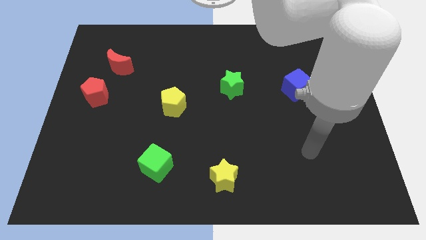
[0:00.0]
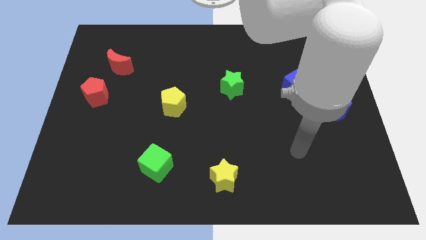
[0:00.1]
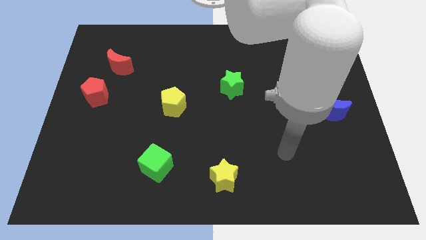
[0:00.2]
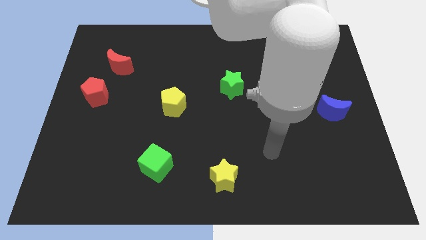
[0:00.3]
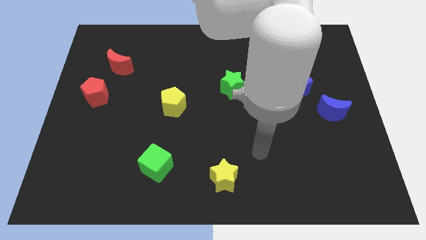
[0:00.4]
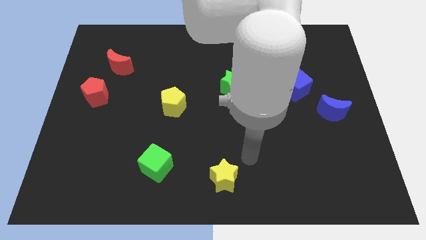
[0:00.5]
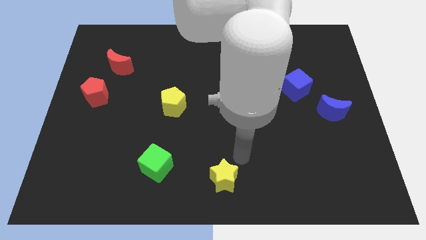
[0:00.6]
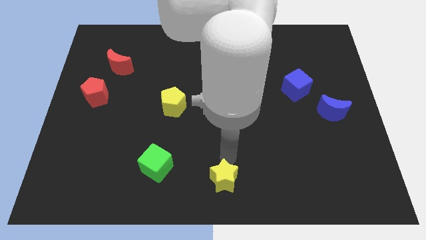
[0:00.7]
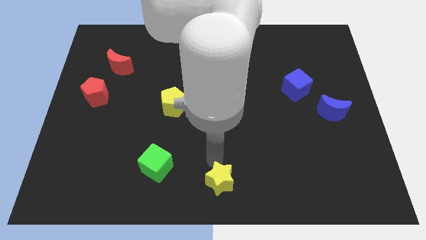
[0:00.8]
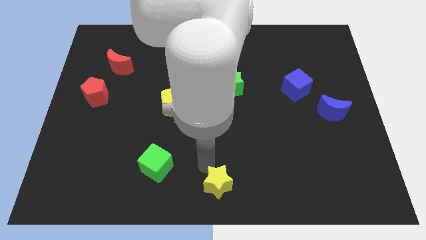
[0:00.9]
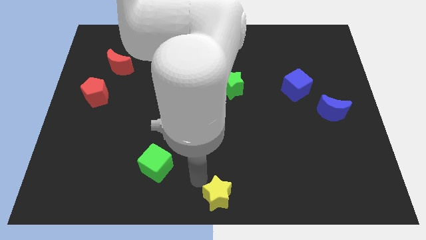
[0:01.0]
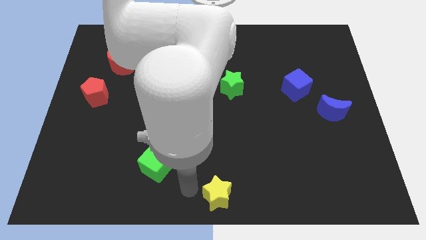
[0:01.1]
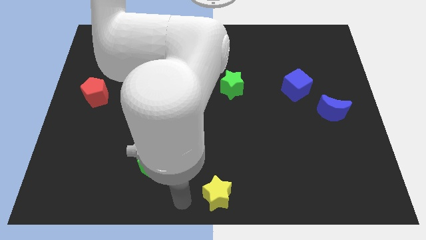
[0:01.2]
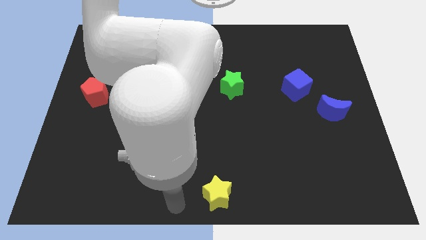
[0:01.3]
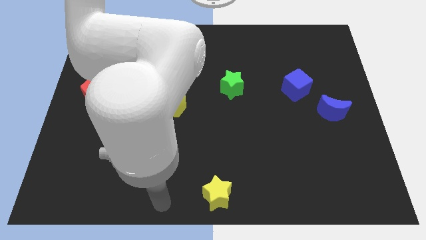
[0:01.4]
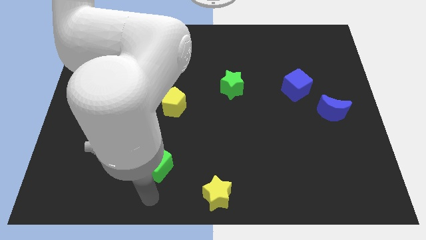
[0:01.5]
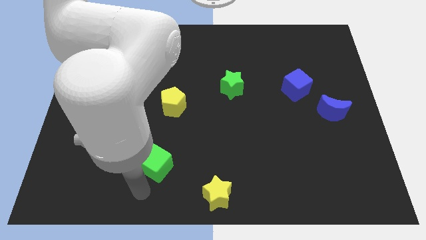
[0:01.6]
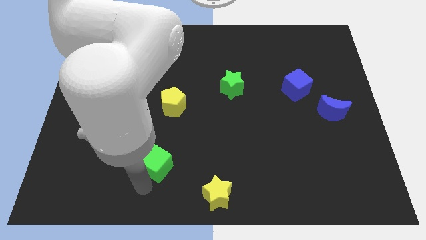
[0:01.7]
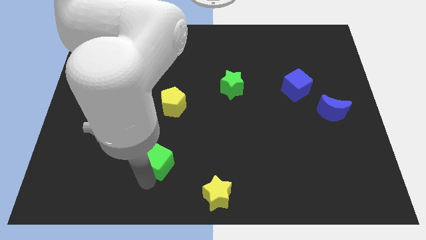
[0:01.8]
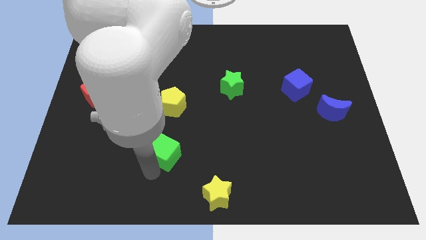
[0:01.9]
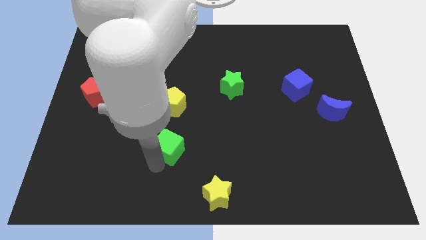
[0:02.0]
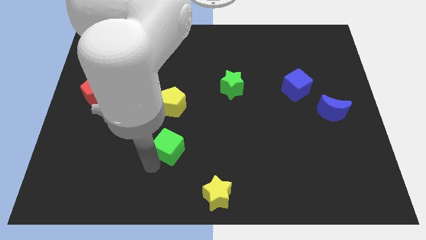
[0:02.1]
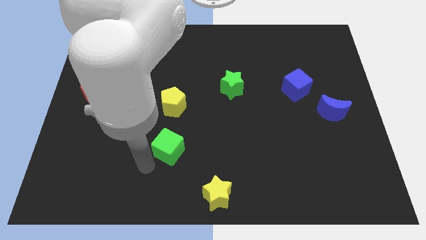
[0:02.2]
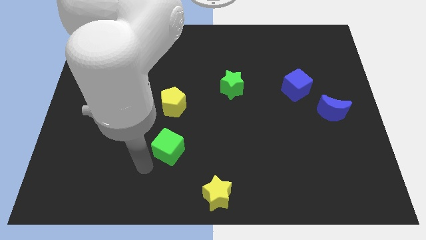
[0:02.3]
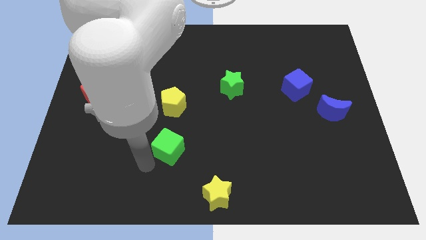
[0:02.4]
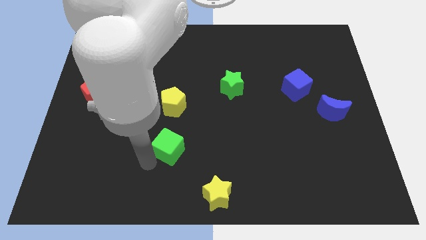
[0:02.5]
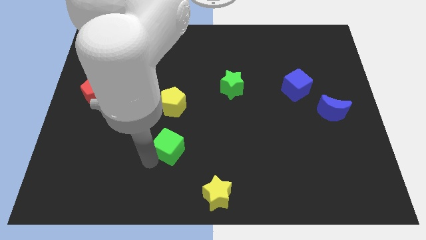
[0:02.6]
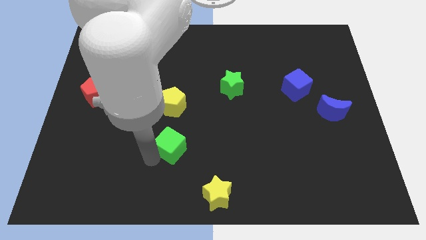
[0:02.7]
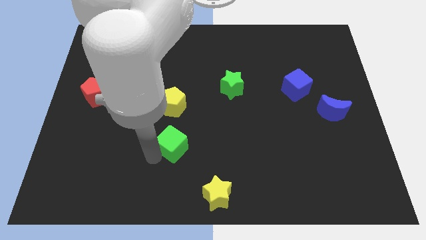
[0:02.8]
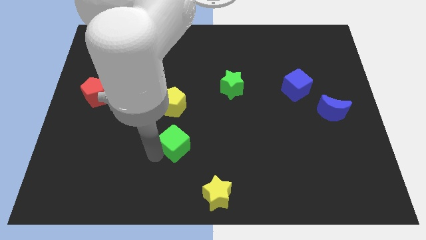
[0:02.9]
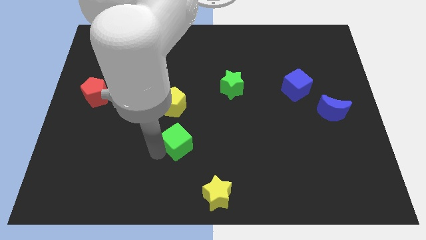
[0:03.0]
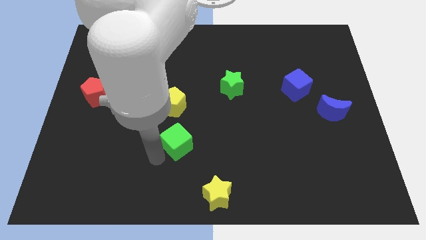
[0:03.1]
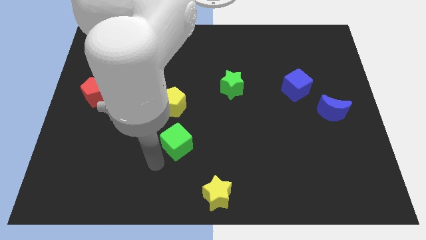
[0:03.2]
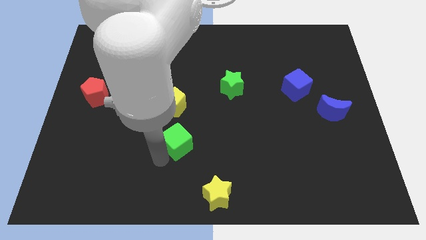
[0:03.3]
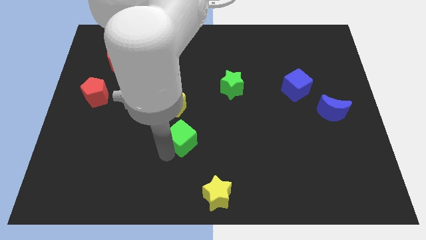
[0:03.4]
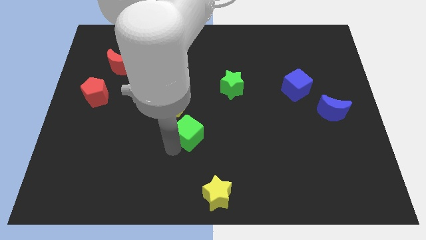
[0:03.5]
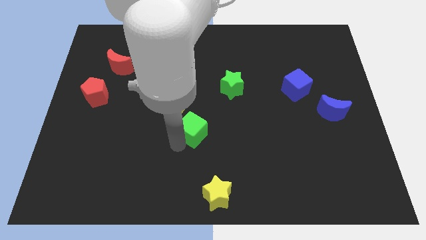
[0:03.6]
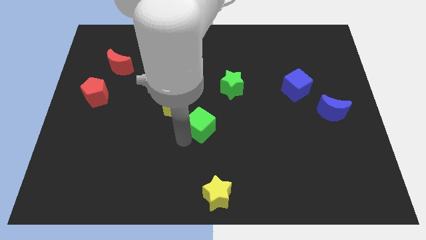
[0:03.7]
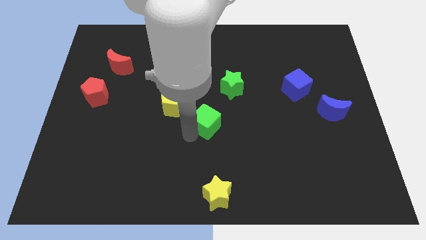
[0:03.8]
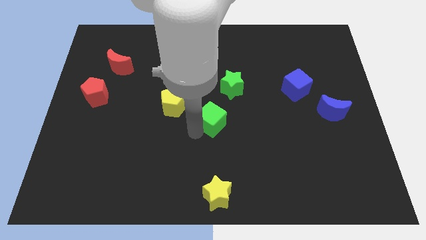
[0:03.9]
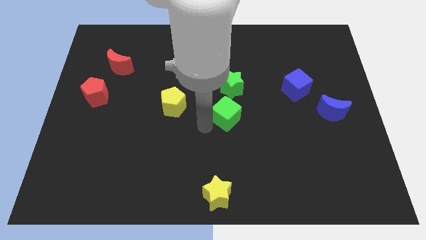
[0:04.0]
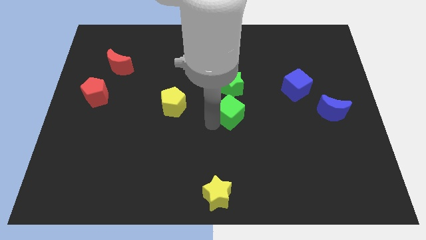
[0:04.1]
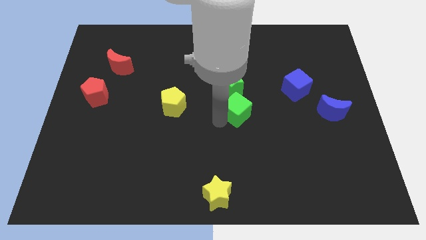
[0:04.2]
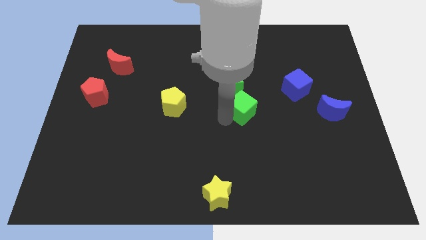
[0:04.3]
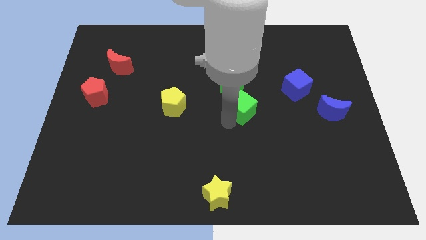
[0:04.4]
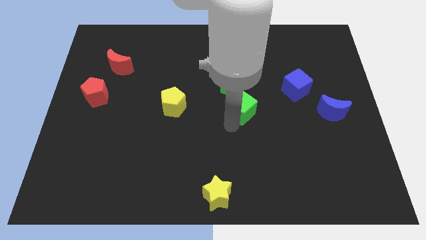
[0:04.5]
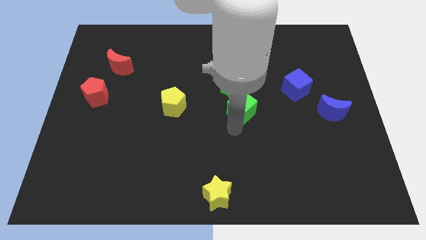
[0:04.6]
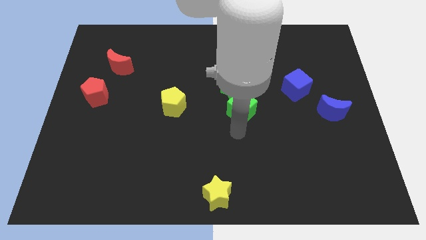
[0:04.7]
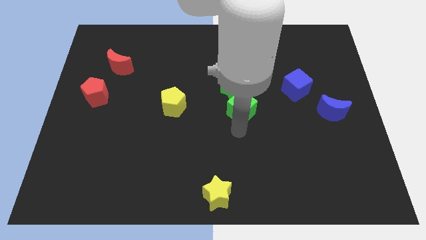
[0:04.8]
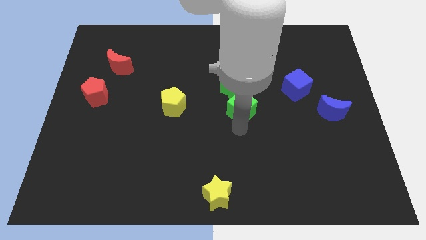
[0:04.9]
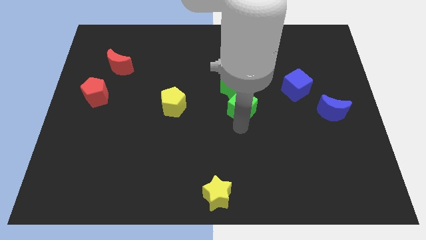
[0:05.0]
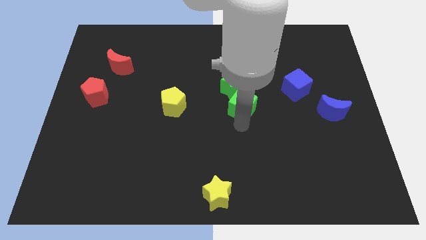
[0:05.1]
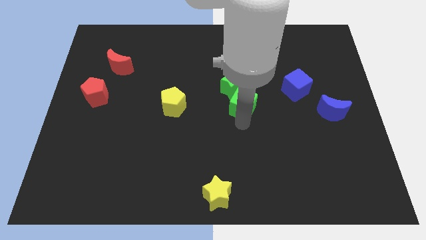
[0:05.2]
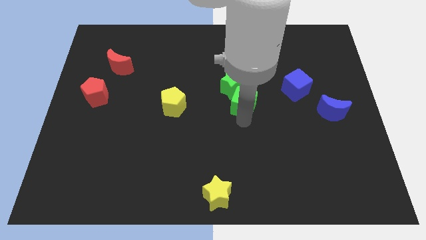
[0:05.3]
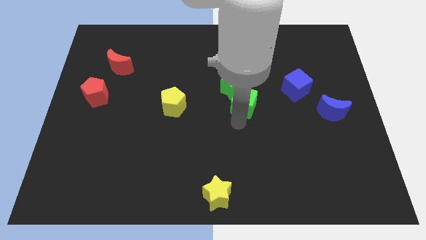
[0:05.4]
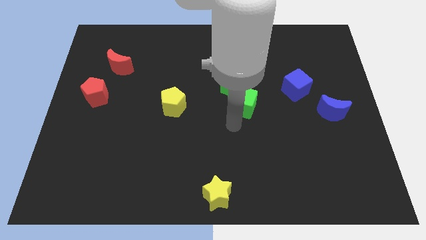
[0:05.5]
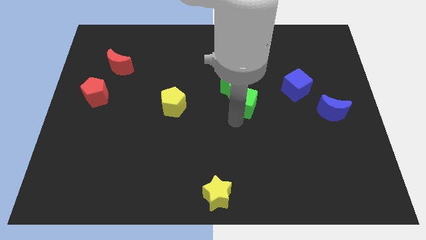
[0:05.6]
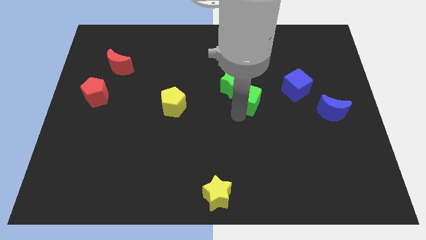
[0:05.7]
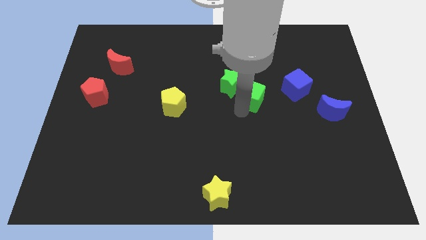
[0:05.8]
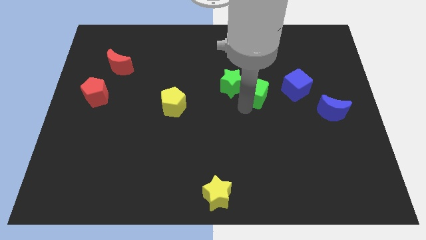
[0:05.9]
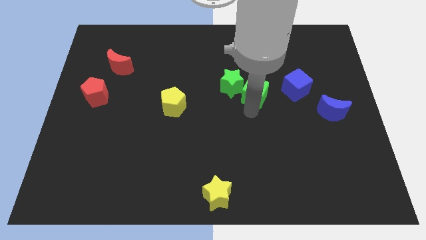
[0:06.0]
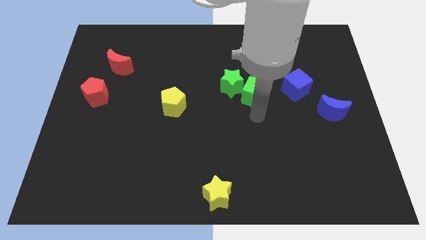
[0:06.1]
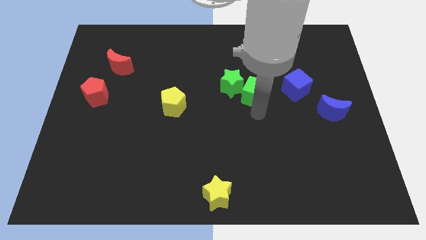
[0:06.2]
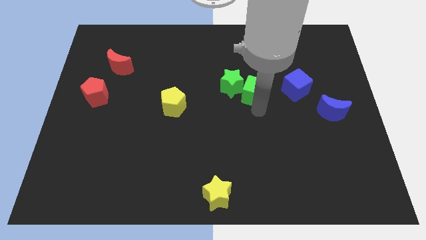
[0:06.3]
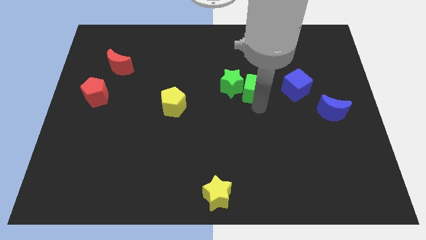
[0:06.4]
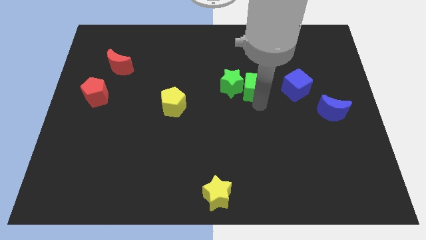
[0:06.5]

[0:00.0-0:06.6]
push the green cube diagonally up and to the right of the green star

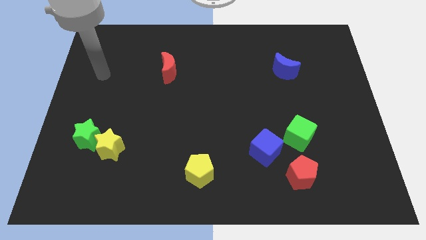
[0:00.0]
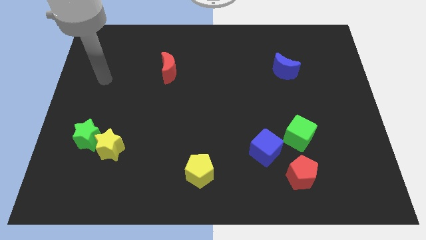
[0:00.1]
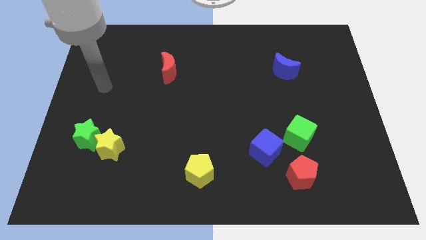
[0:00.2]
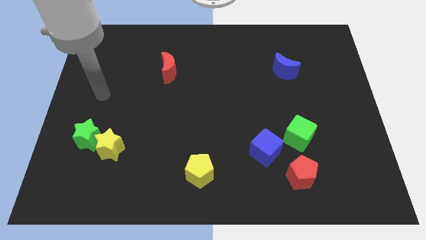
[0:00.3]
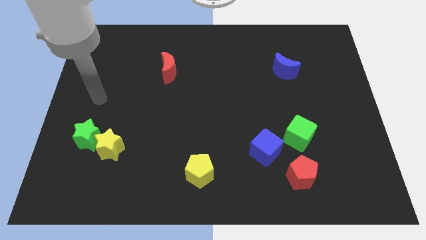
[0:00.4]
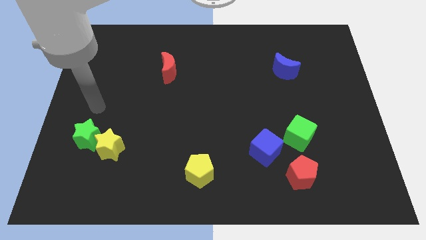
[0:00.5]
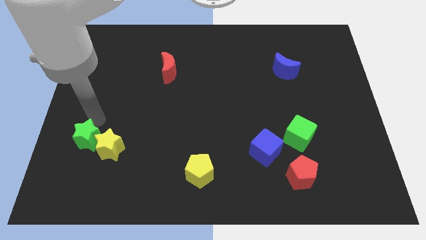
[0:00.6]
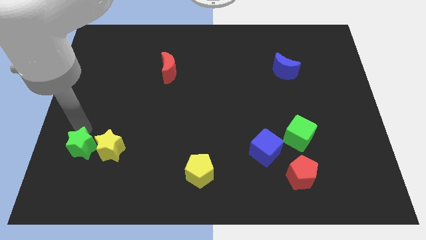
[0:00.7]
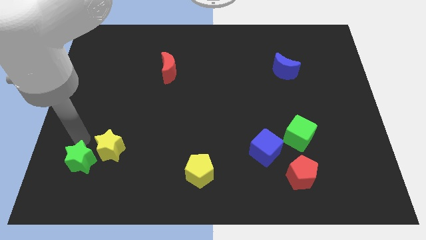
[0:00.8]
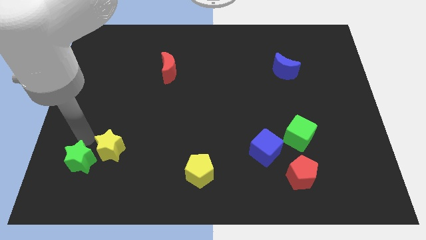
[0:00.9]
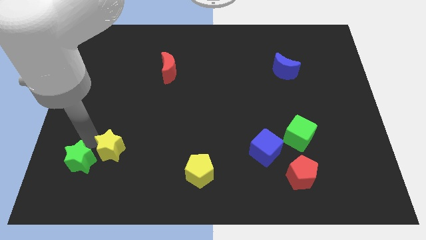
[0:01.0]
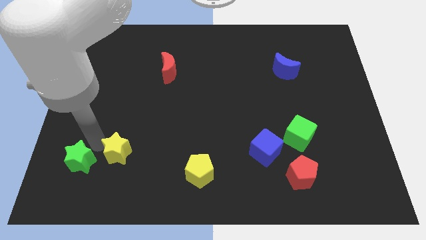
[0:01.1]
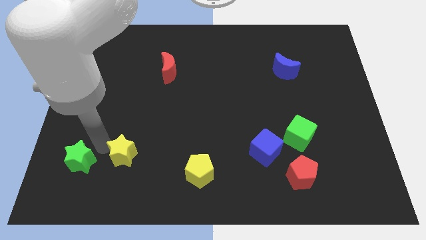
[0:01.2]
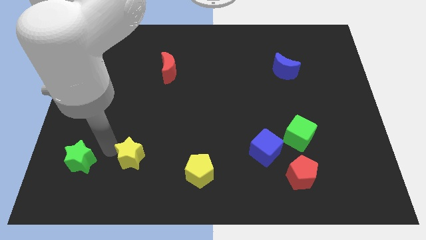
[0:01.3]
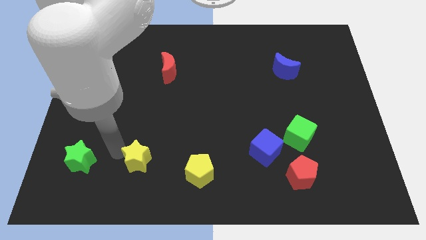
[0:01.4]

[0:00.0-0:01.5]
push the yellow star to the left of the yellow pentagon
